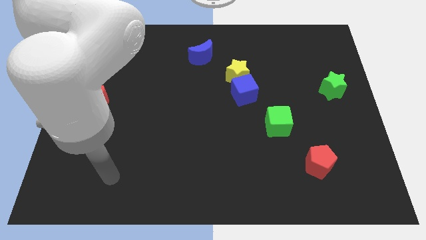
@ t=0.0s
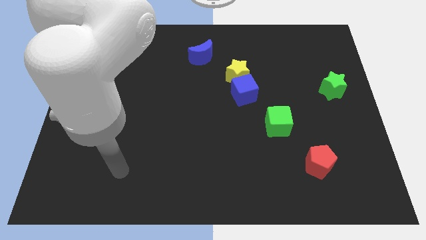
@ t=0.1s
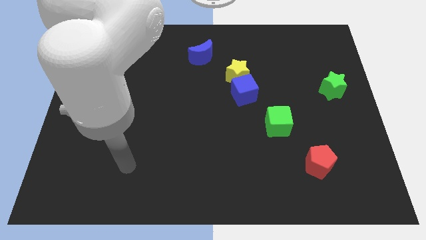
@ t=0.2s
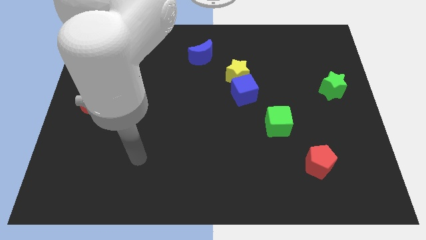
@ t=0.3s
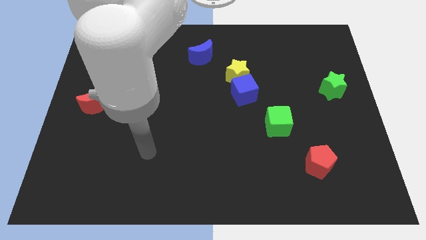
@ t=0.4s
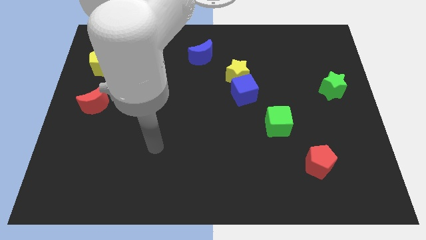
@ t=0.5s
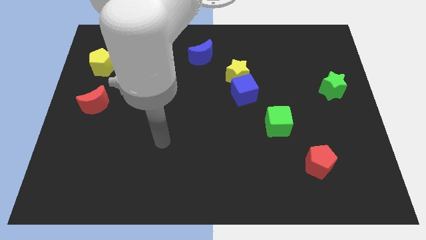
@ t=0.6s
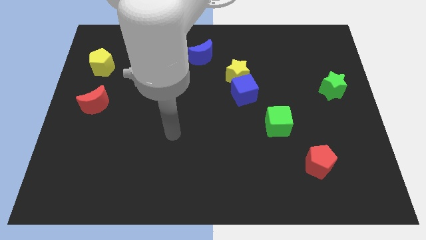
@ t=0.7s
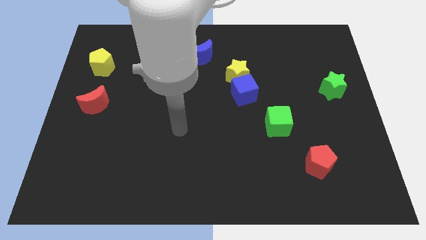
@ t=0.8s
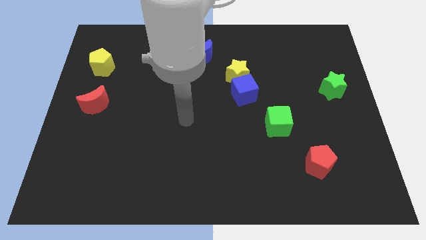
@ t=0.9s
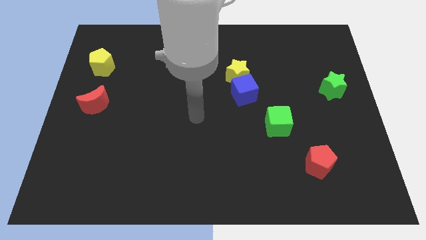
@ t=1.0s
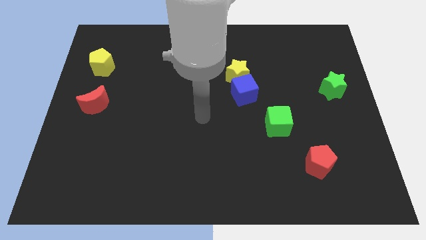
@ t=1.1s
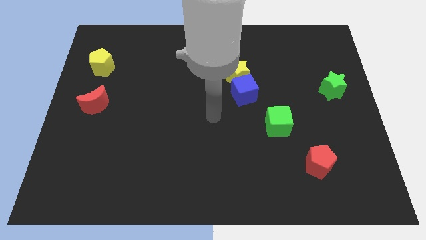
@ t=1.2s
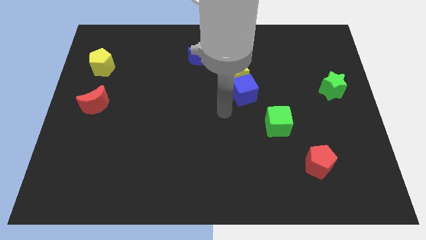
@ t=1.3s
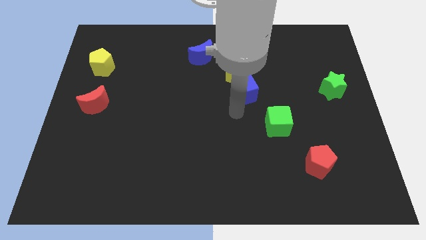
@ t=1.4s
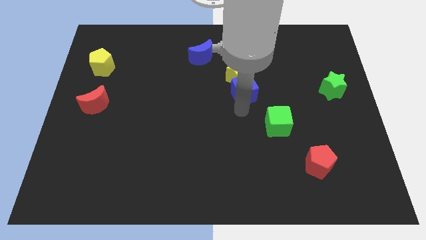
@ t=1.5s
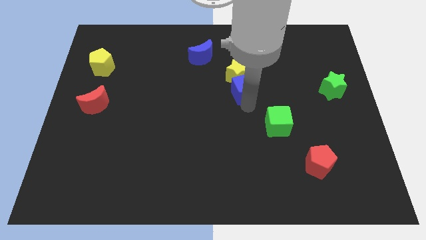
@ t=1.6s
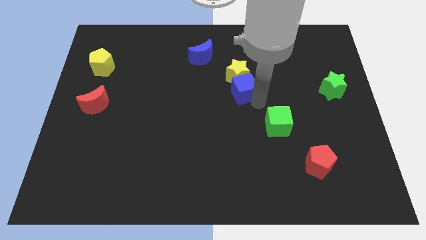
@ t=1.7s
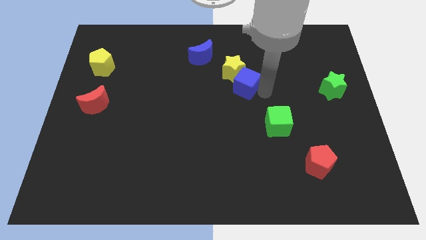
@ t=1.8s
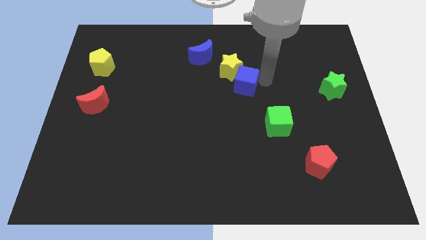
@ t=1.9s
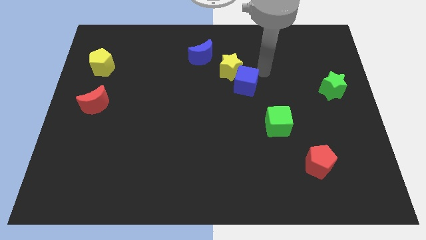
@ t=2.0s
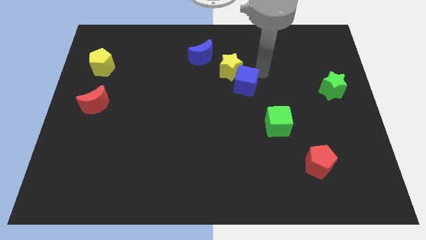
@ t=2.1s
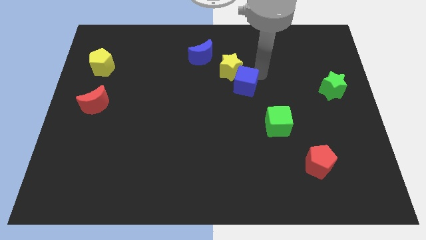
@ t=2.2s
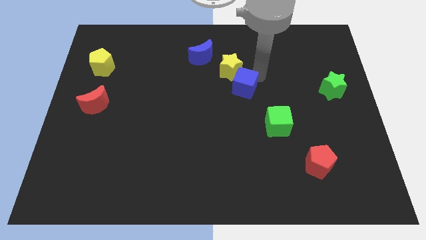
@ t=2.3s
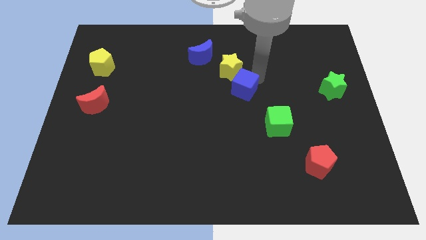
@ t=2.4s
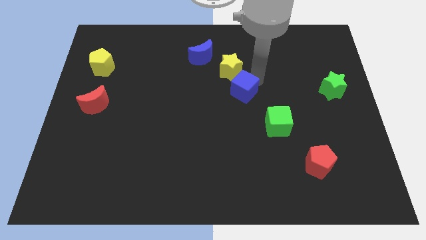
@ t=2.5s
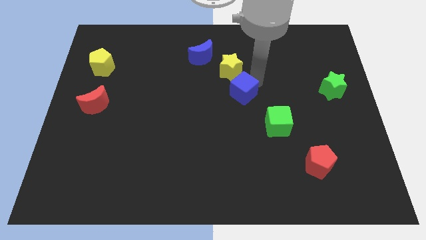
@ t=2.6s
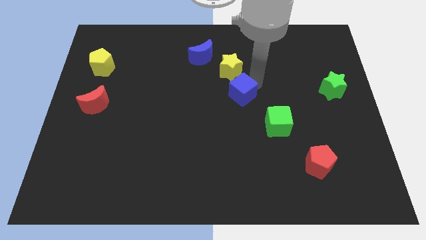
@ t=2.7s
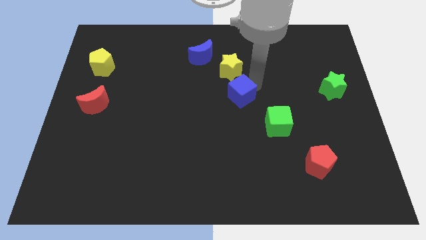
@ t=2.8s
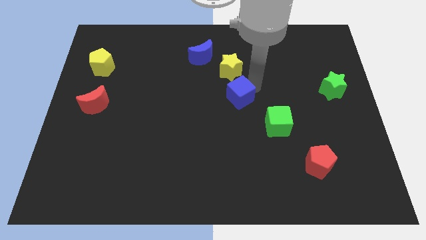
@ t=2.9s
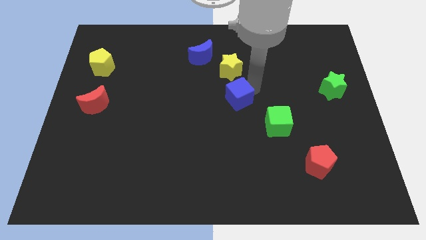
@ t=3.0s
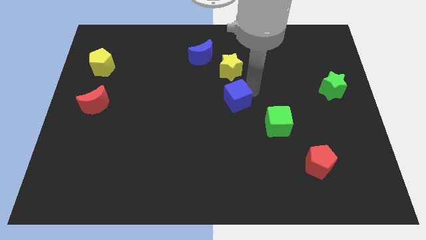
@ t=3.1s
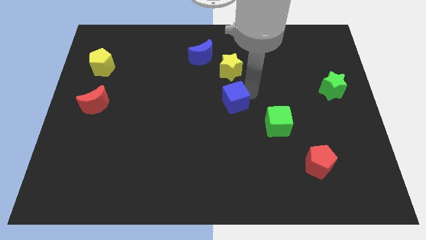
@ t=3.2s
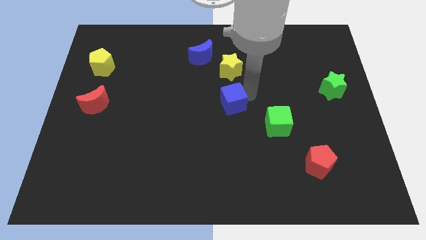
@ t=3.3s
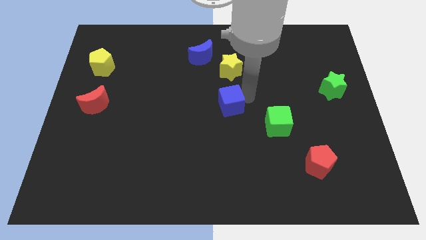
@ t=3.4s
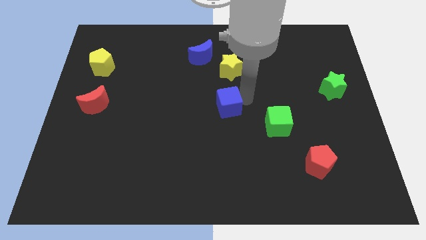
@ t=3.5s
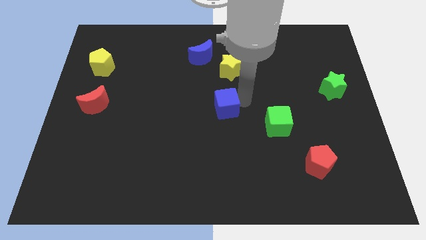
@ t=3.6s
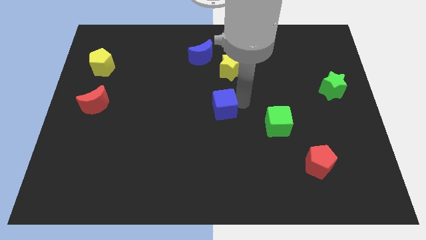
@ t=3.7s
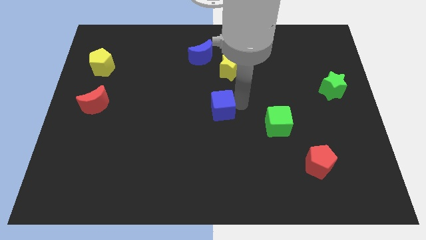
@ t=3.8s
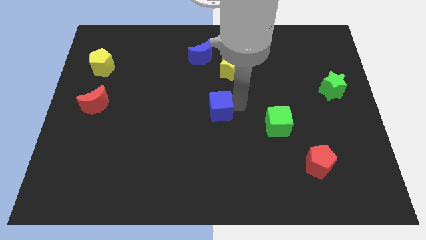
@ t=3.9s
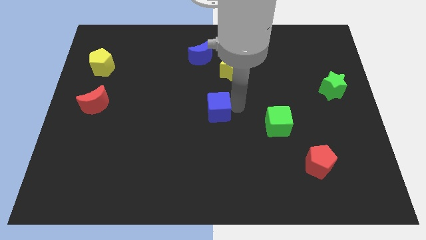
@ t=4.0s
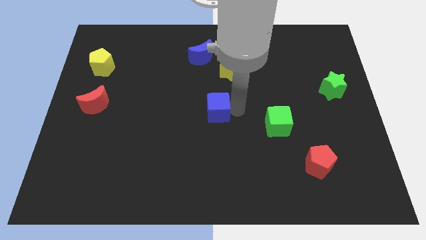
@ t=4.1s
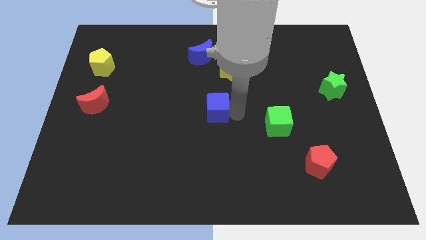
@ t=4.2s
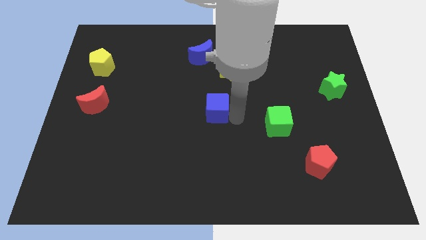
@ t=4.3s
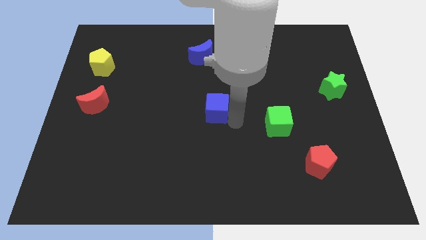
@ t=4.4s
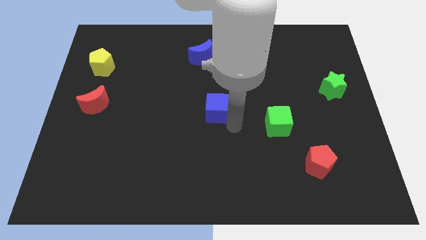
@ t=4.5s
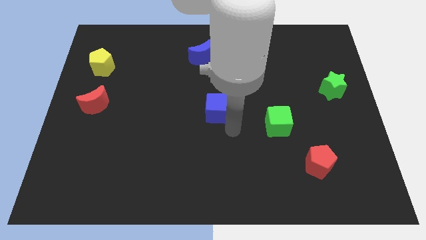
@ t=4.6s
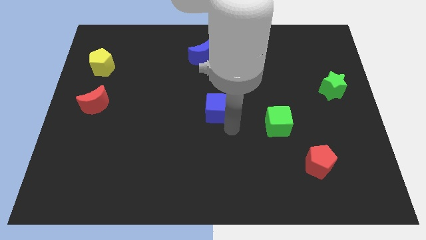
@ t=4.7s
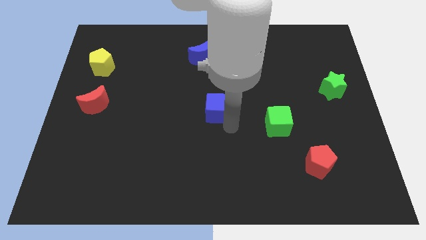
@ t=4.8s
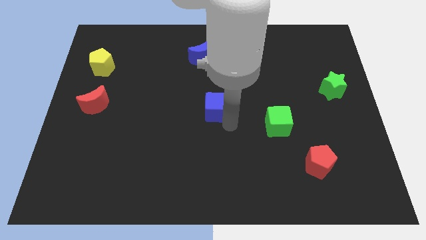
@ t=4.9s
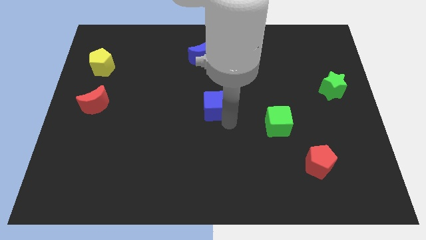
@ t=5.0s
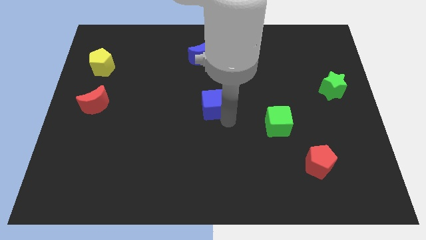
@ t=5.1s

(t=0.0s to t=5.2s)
push the blue cube a little bit to the left

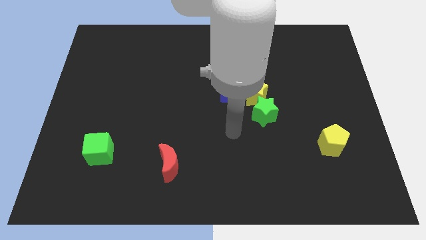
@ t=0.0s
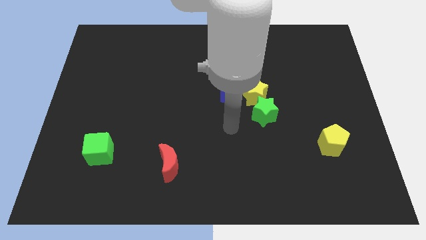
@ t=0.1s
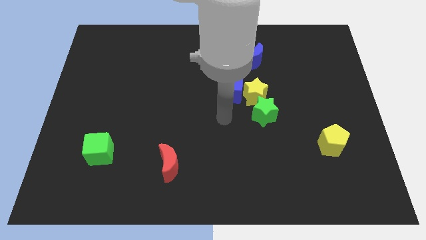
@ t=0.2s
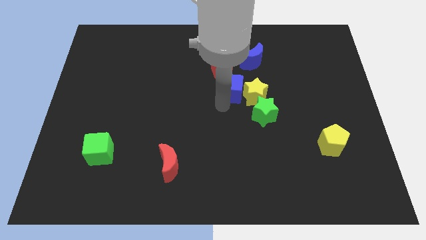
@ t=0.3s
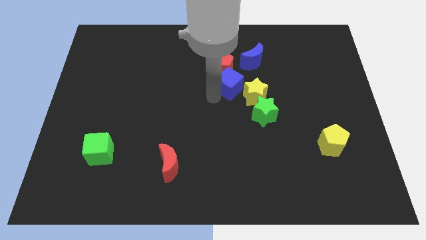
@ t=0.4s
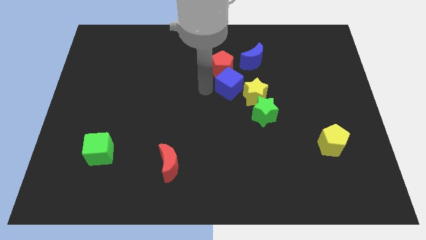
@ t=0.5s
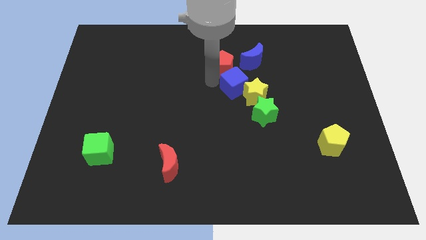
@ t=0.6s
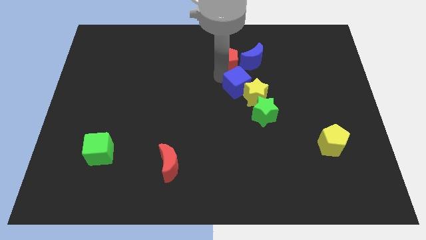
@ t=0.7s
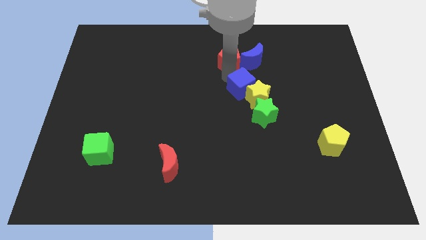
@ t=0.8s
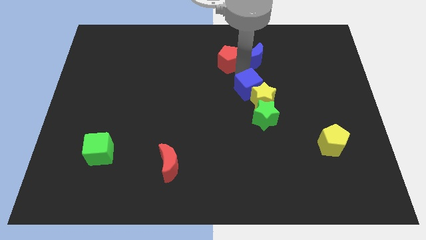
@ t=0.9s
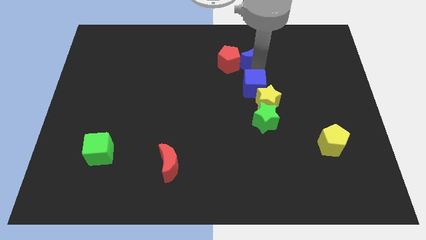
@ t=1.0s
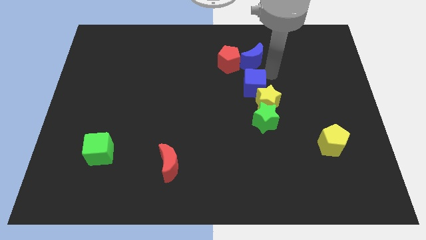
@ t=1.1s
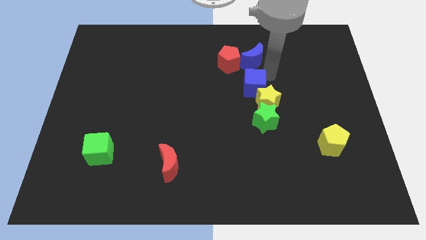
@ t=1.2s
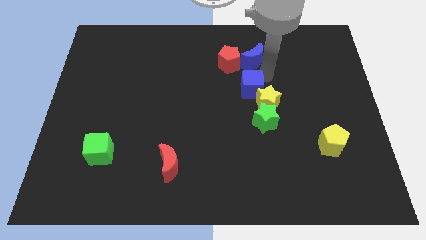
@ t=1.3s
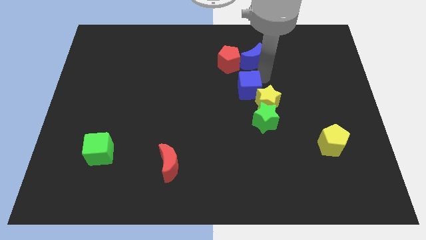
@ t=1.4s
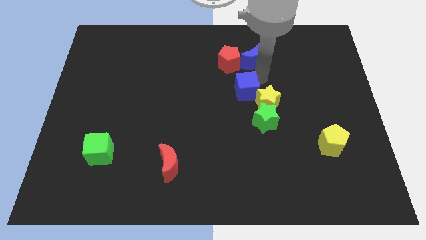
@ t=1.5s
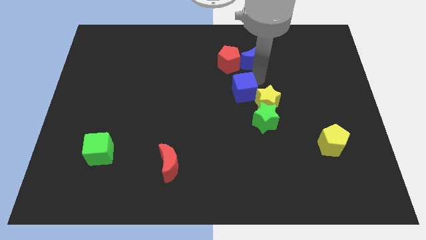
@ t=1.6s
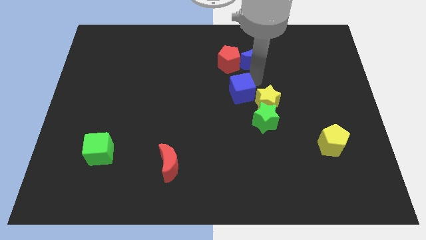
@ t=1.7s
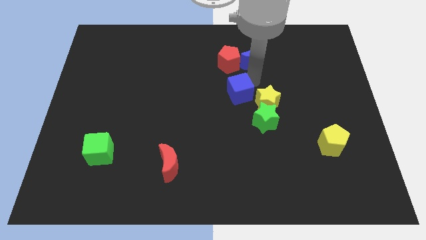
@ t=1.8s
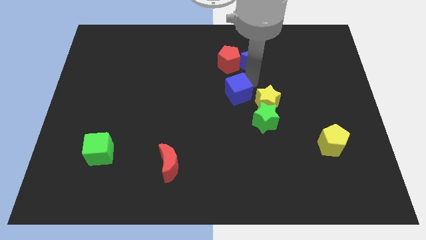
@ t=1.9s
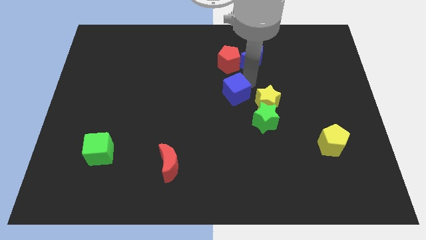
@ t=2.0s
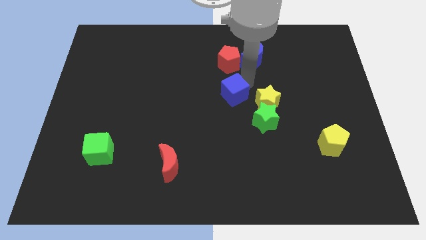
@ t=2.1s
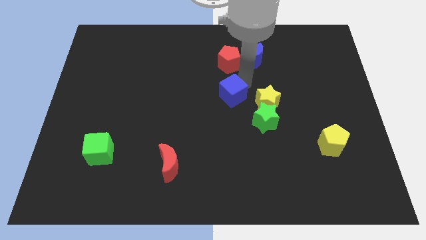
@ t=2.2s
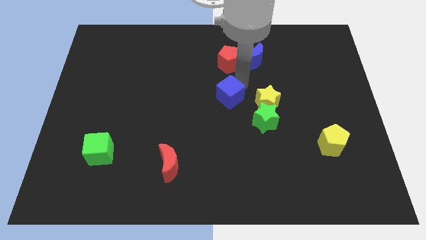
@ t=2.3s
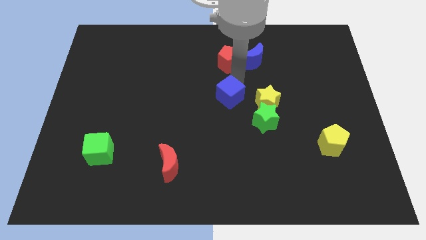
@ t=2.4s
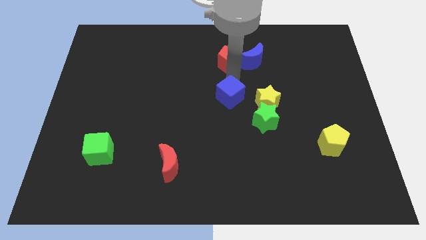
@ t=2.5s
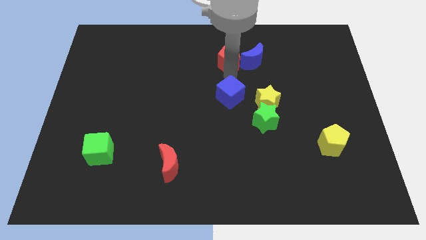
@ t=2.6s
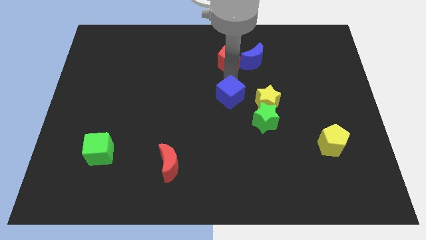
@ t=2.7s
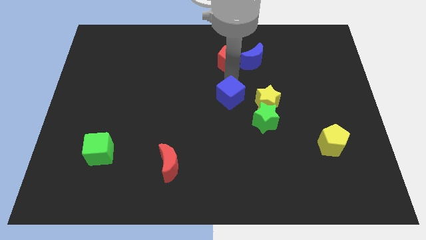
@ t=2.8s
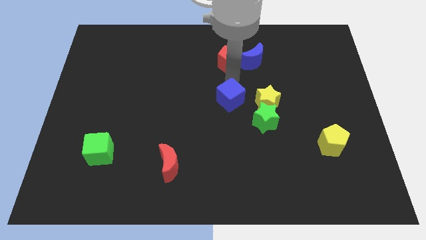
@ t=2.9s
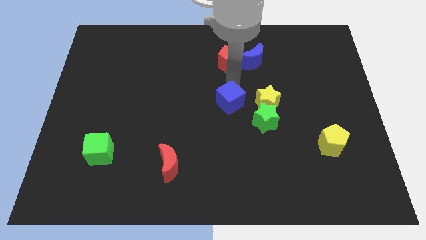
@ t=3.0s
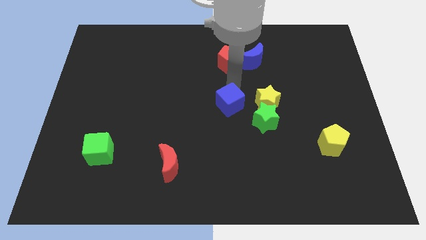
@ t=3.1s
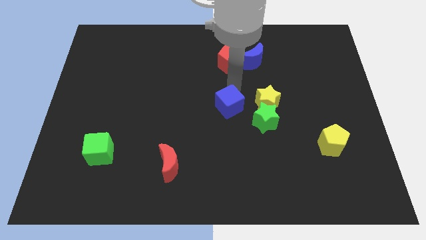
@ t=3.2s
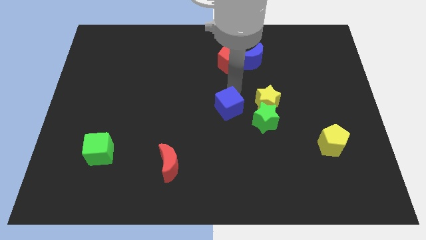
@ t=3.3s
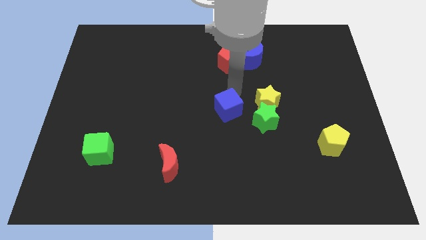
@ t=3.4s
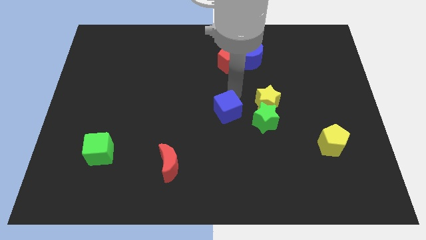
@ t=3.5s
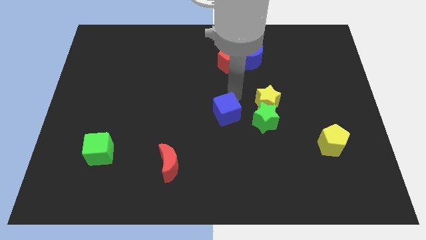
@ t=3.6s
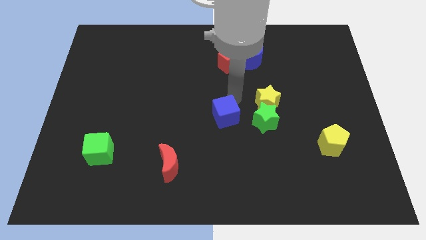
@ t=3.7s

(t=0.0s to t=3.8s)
push the blue cube down a little
